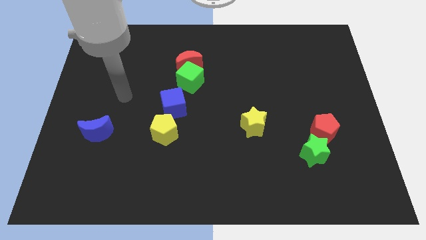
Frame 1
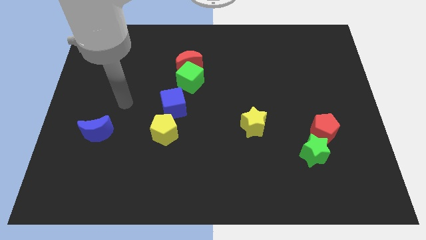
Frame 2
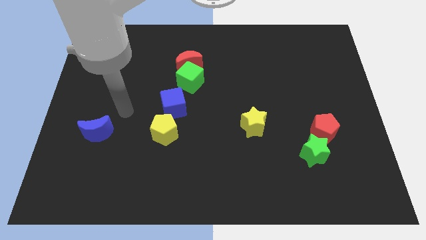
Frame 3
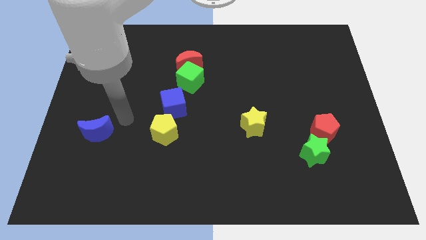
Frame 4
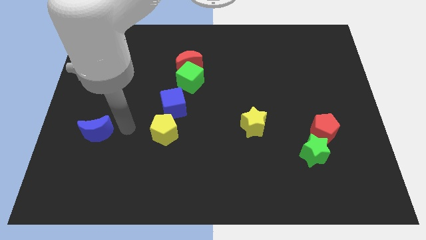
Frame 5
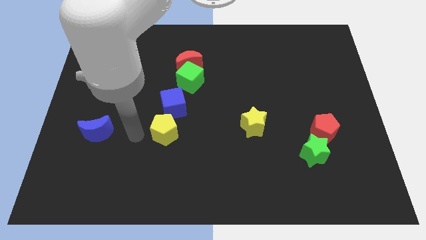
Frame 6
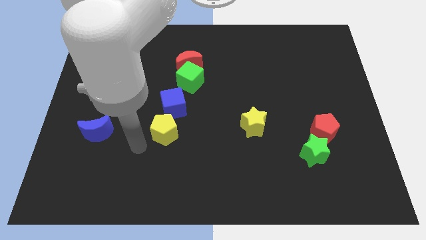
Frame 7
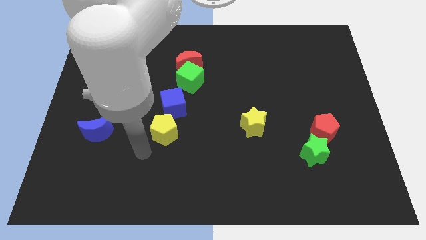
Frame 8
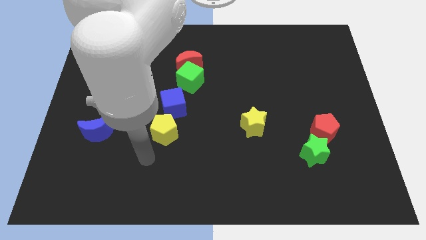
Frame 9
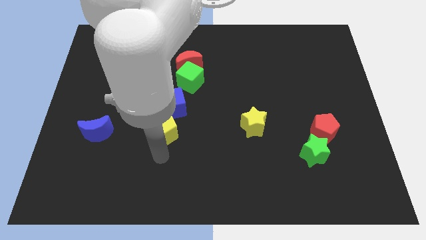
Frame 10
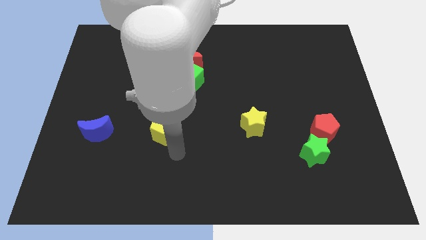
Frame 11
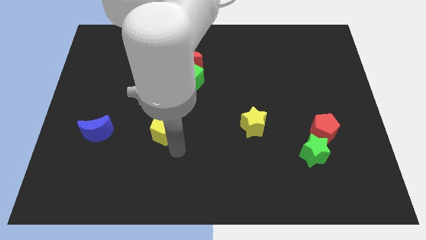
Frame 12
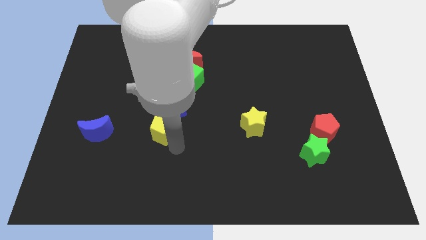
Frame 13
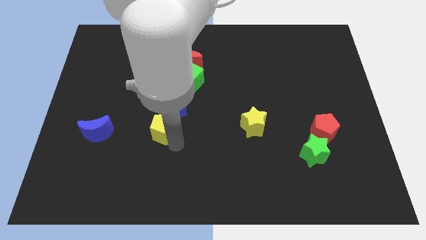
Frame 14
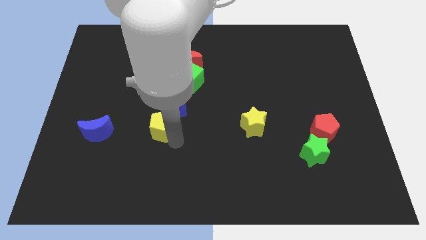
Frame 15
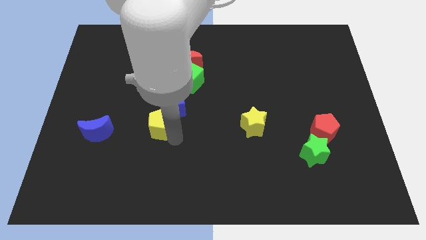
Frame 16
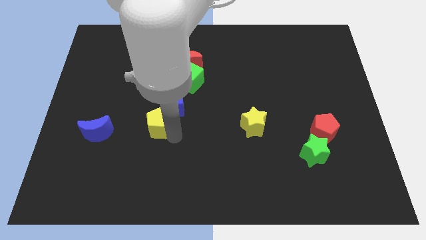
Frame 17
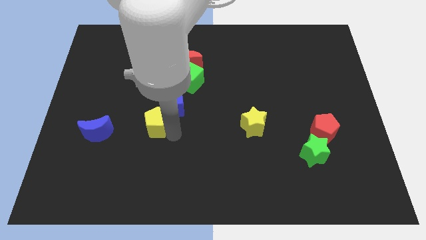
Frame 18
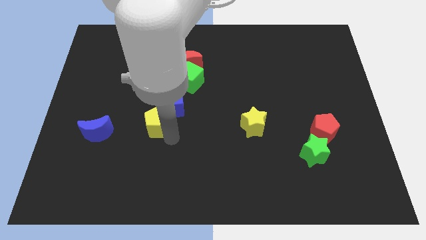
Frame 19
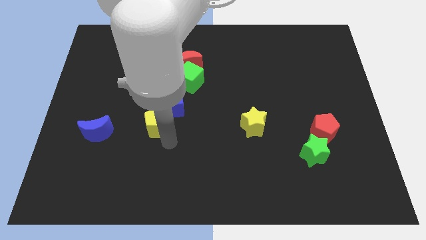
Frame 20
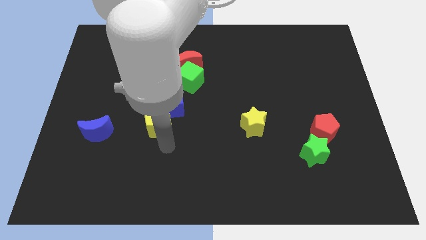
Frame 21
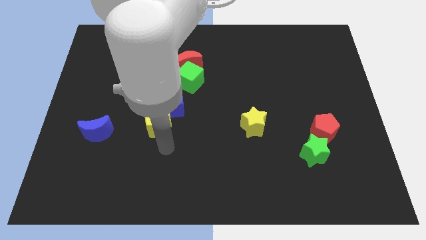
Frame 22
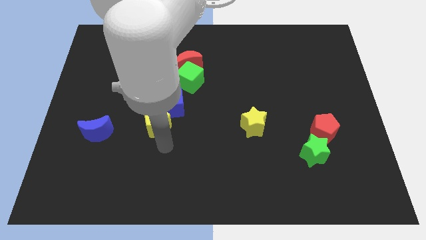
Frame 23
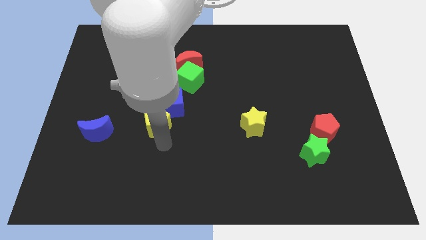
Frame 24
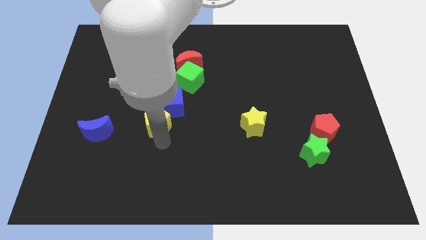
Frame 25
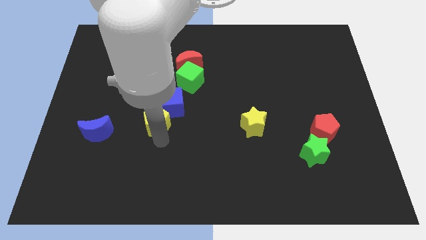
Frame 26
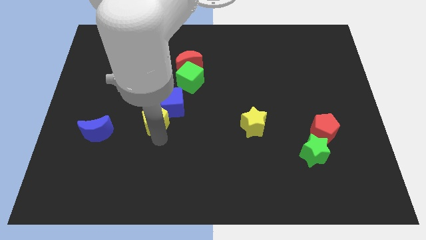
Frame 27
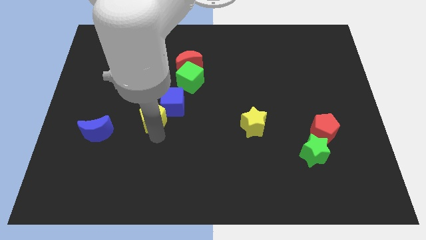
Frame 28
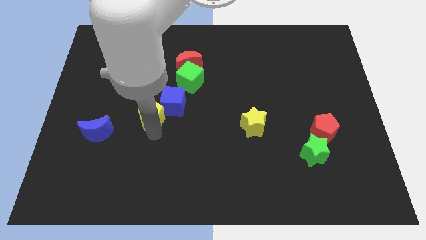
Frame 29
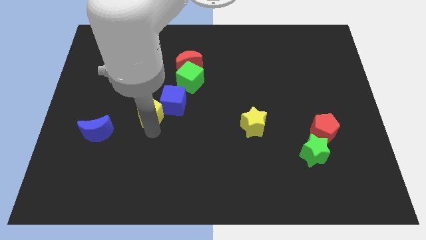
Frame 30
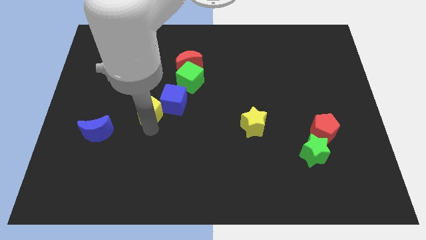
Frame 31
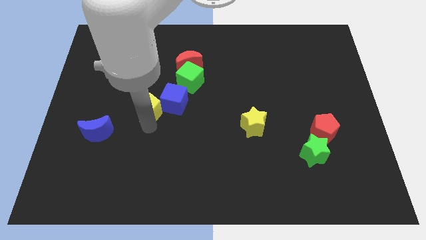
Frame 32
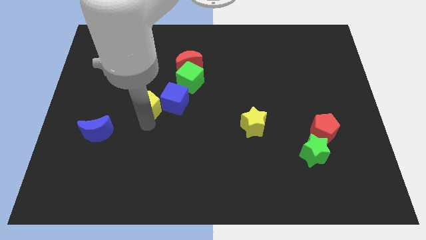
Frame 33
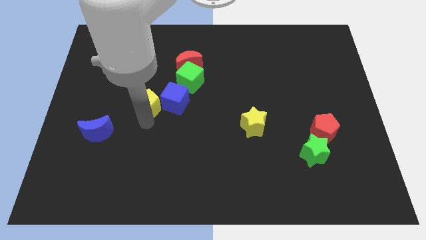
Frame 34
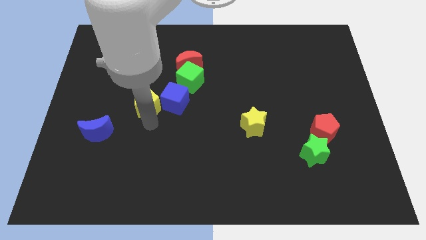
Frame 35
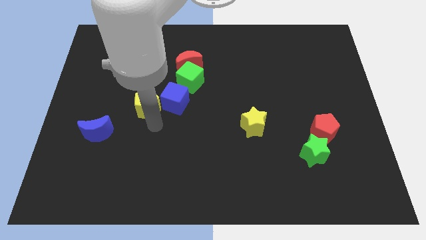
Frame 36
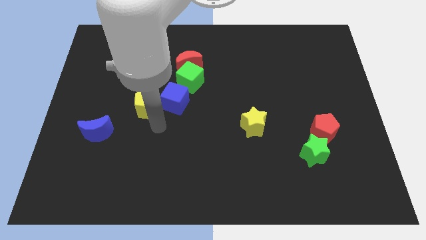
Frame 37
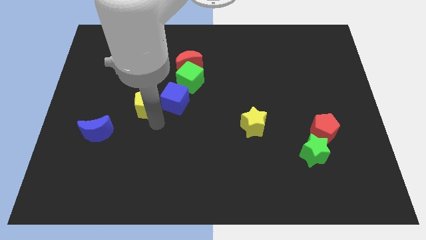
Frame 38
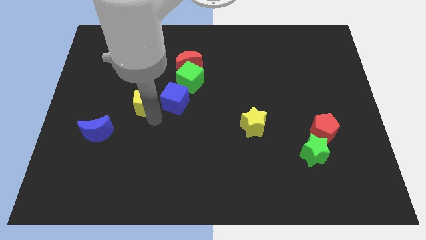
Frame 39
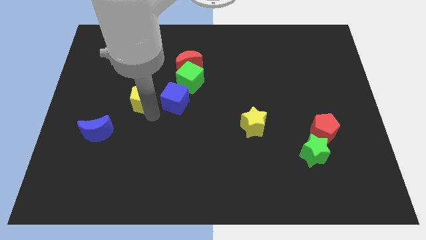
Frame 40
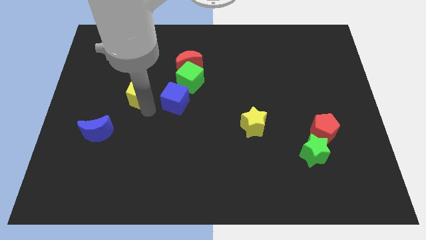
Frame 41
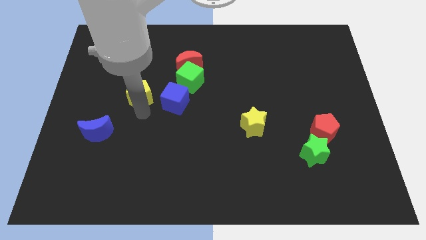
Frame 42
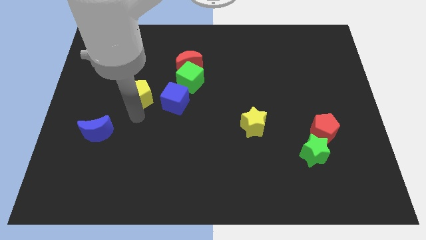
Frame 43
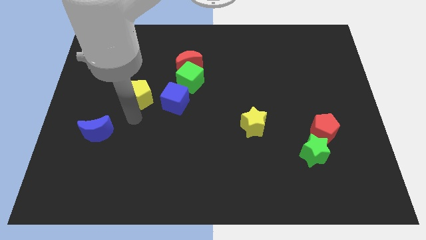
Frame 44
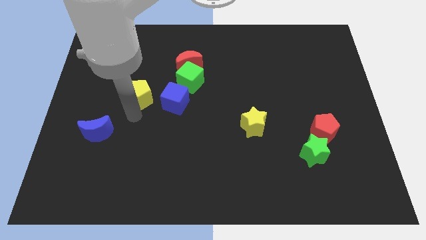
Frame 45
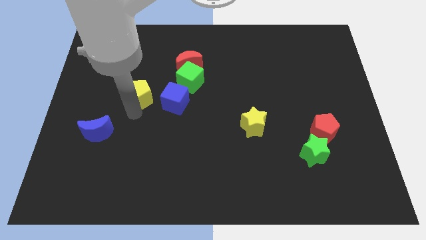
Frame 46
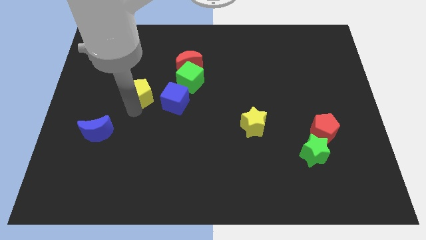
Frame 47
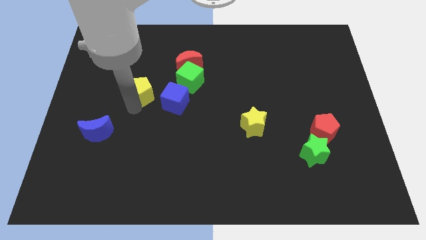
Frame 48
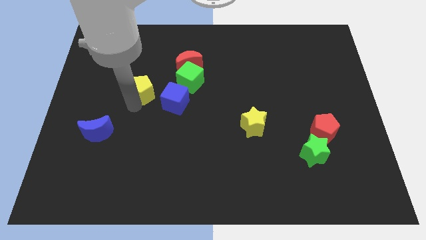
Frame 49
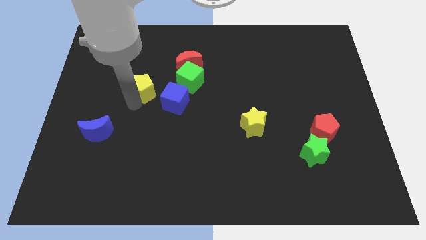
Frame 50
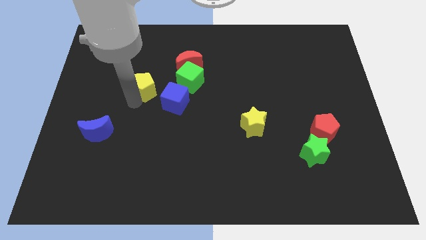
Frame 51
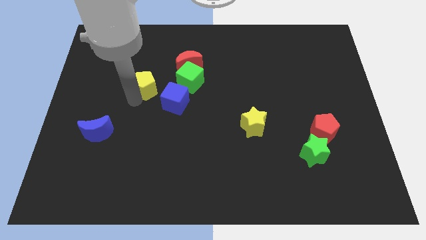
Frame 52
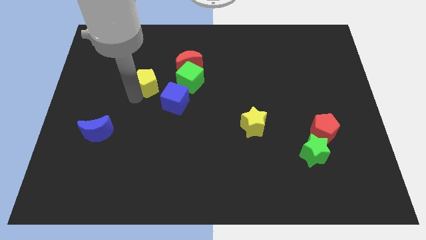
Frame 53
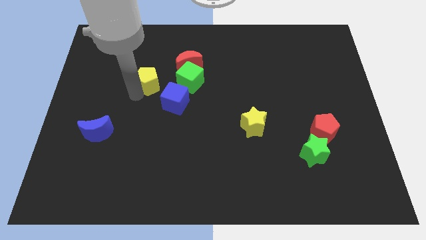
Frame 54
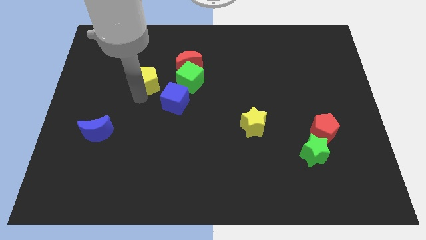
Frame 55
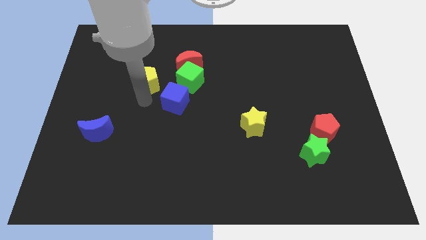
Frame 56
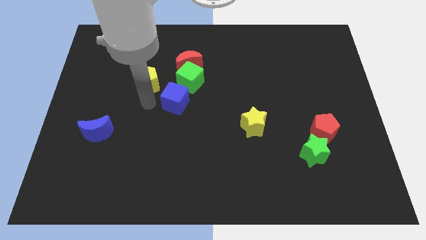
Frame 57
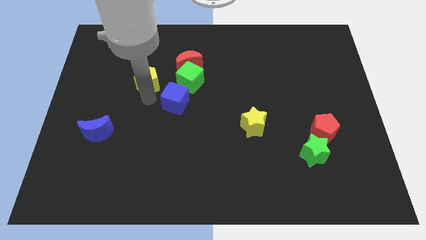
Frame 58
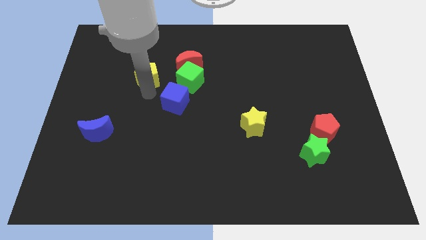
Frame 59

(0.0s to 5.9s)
slide the yellow pentagon to the left side of the red moon

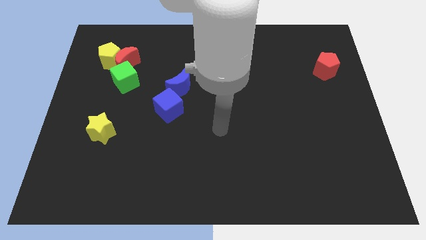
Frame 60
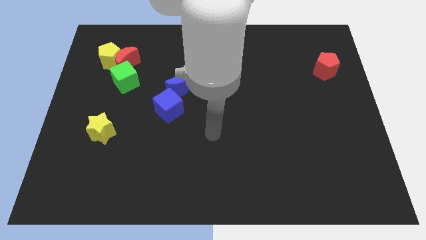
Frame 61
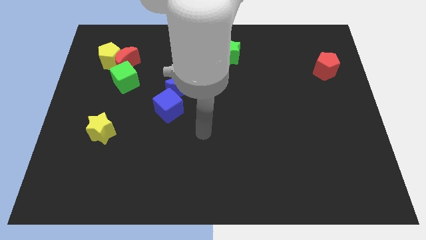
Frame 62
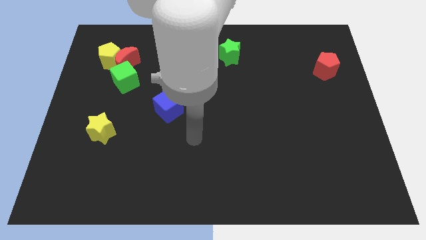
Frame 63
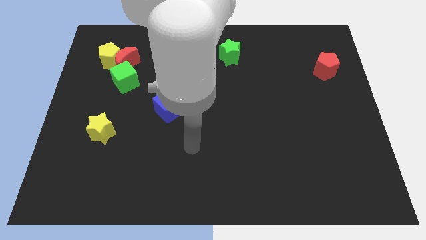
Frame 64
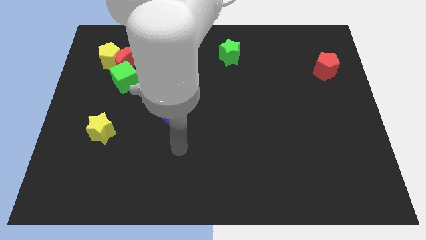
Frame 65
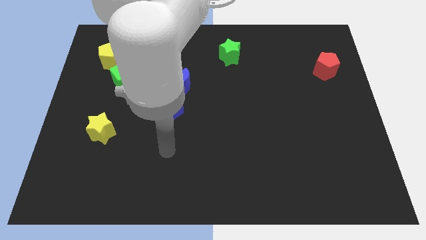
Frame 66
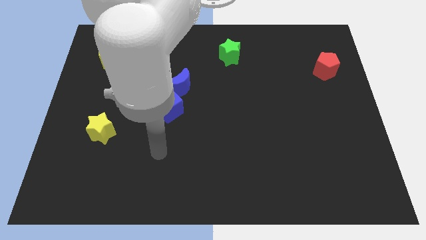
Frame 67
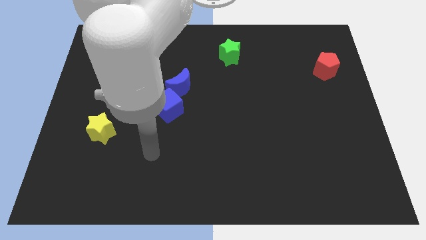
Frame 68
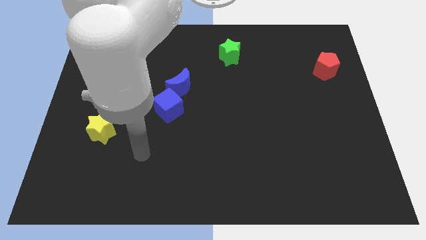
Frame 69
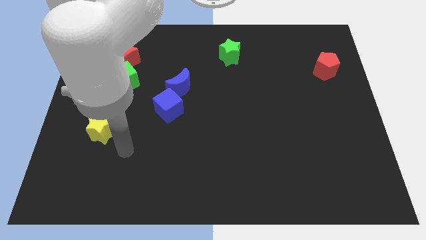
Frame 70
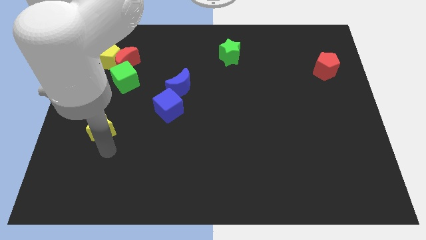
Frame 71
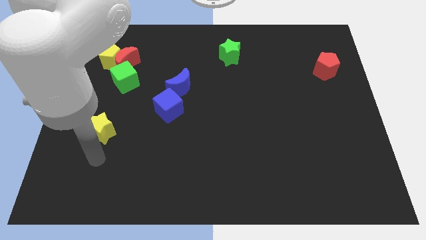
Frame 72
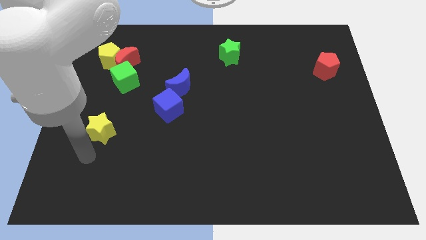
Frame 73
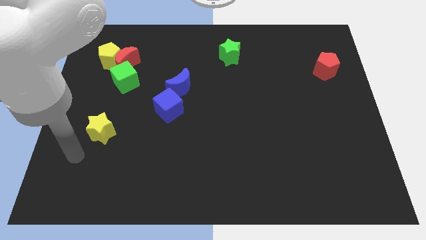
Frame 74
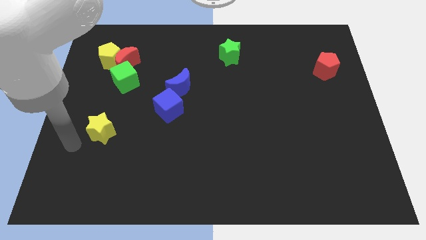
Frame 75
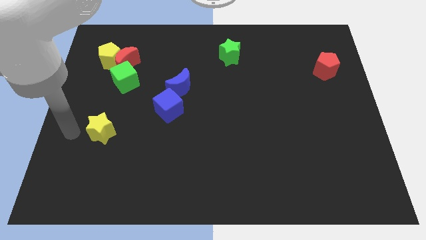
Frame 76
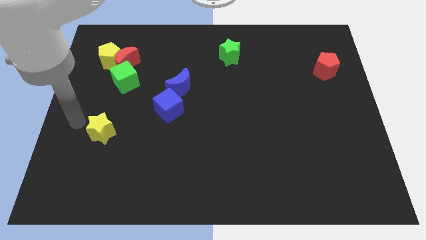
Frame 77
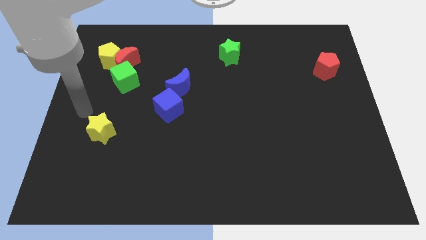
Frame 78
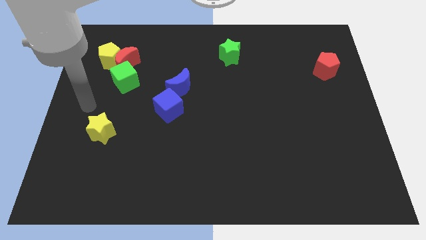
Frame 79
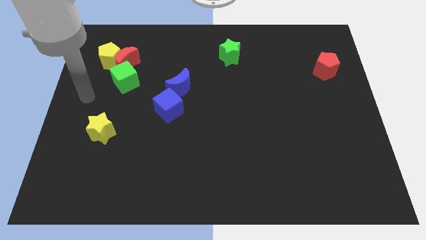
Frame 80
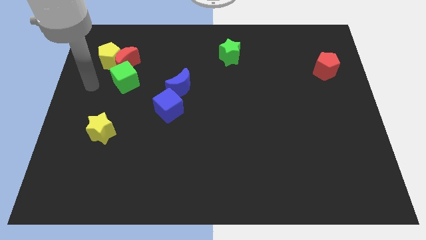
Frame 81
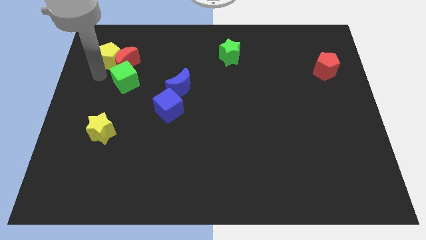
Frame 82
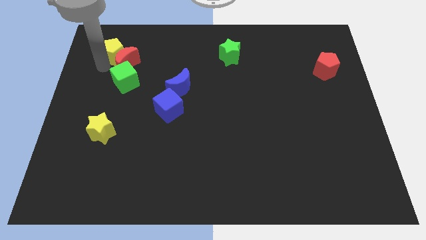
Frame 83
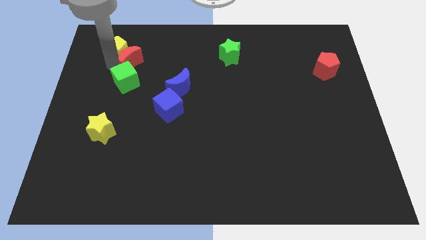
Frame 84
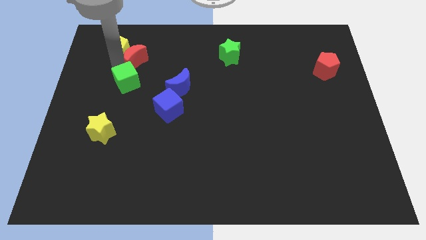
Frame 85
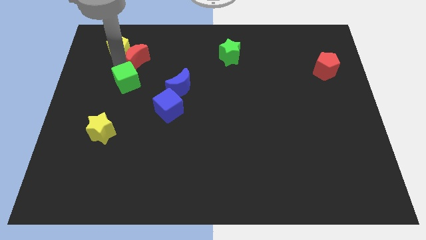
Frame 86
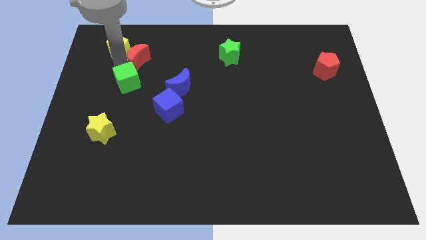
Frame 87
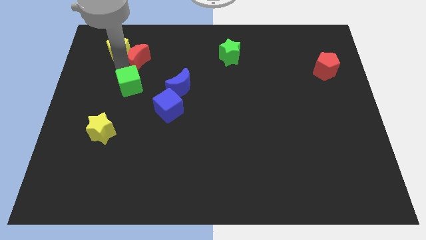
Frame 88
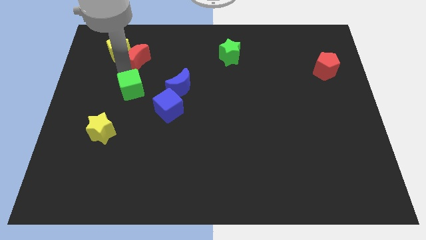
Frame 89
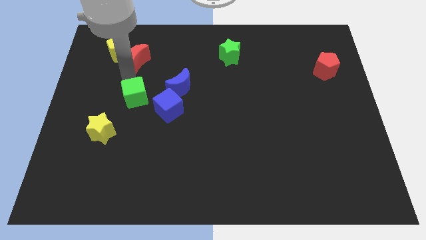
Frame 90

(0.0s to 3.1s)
push the green cube diagonally up and to the right of the yellow star
